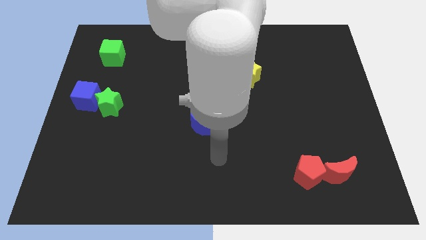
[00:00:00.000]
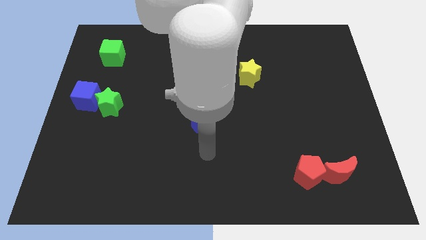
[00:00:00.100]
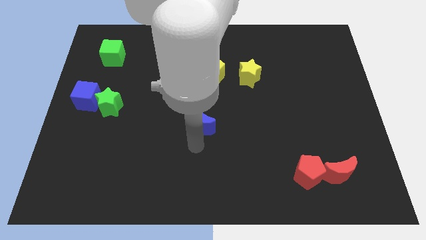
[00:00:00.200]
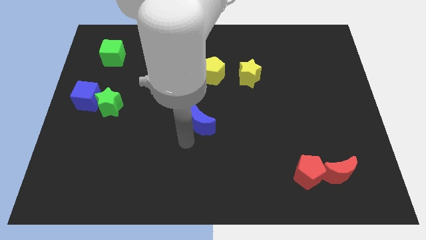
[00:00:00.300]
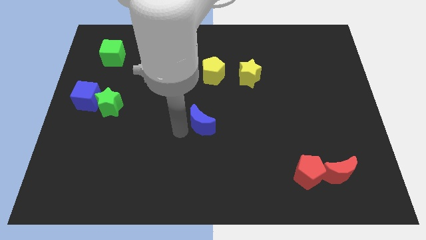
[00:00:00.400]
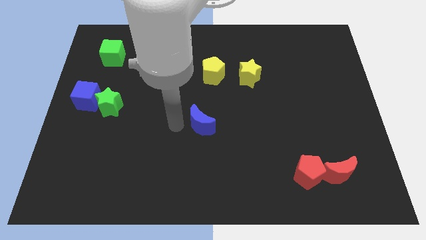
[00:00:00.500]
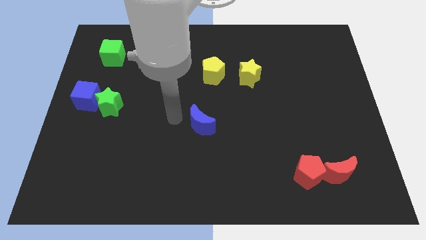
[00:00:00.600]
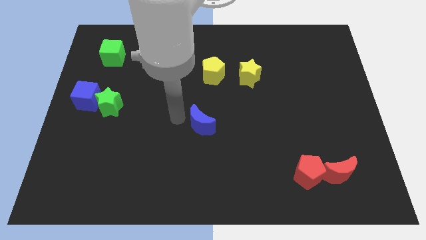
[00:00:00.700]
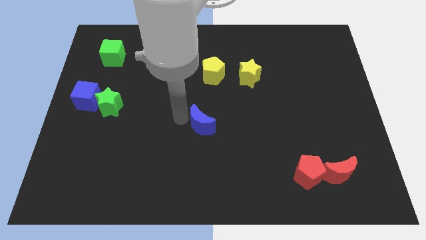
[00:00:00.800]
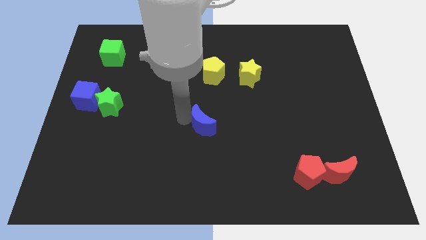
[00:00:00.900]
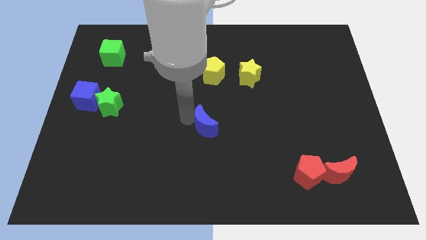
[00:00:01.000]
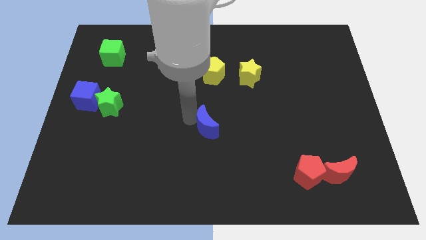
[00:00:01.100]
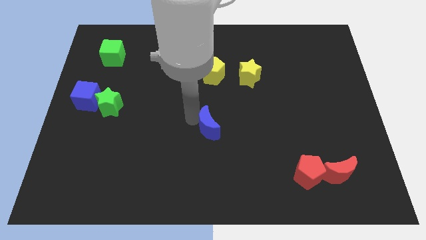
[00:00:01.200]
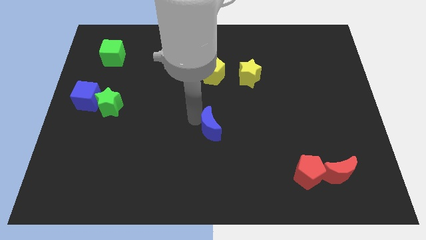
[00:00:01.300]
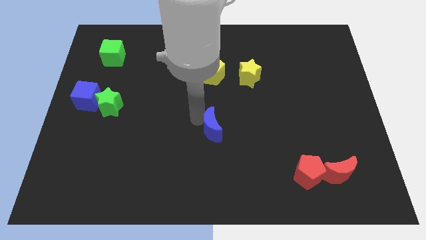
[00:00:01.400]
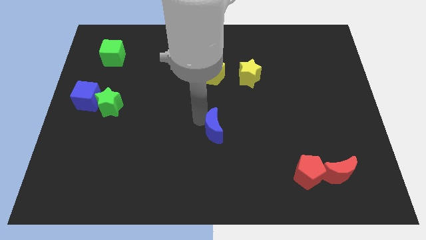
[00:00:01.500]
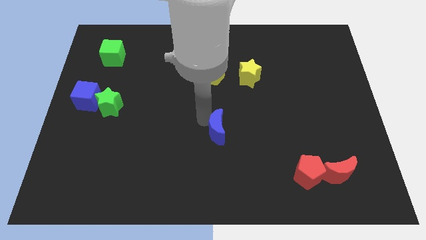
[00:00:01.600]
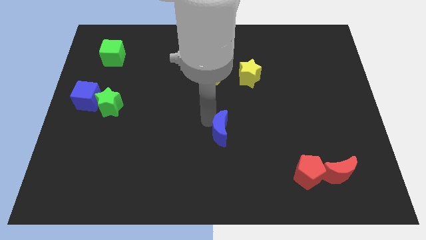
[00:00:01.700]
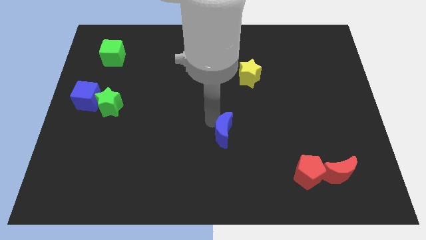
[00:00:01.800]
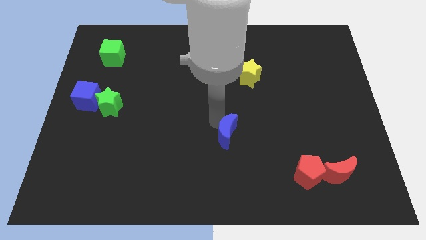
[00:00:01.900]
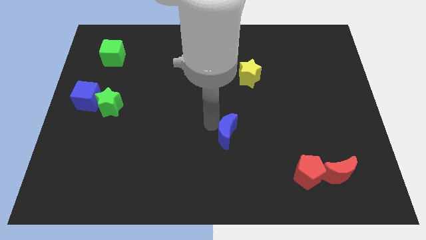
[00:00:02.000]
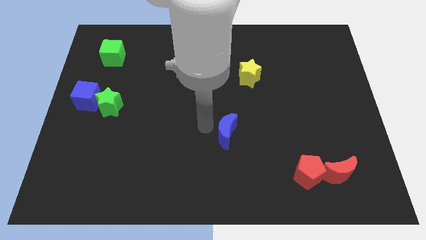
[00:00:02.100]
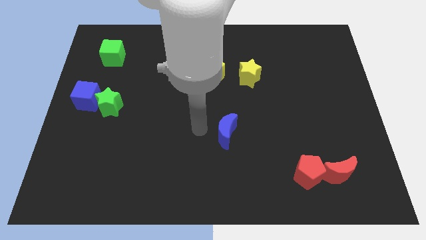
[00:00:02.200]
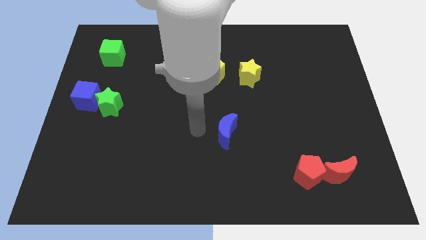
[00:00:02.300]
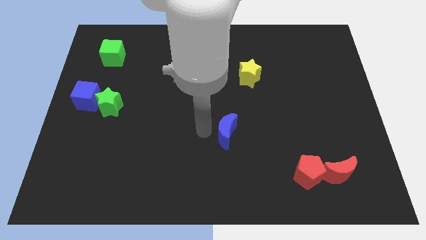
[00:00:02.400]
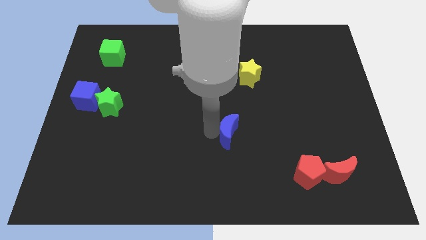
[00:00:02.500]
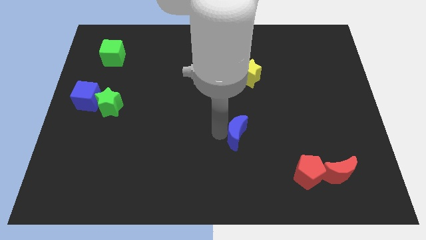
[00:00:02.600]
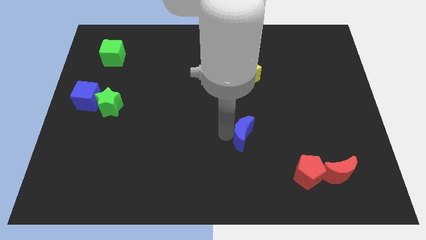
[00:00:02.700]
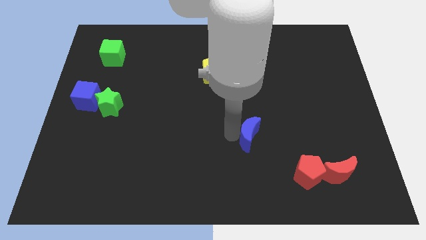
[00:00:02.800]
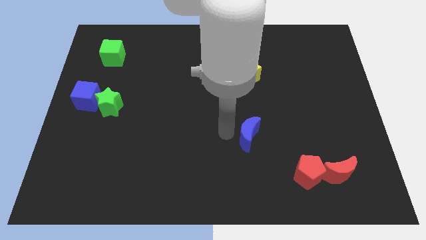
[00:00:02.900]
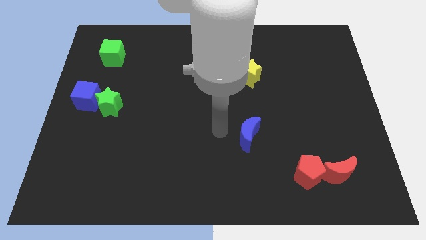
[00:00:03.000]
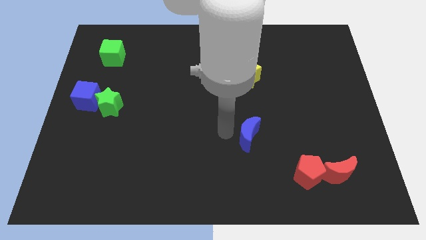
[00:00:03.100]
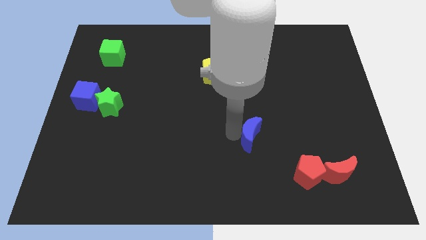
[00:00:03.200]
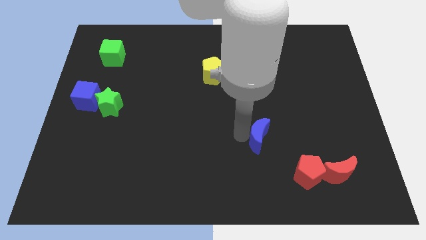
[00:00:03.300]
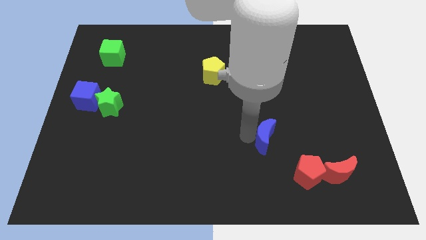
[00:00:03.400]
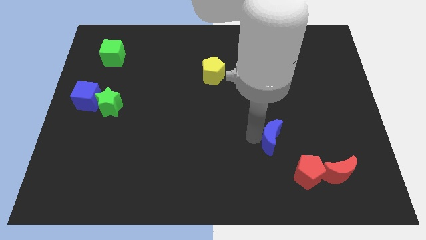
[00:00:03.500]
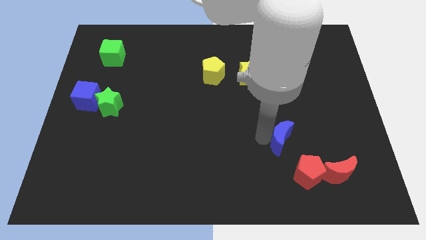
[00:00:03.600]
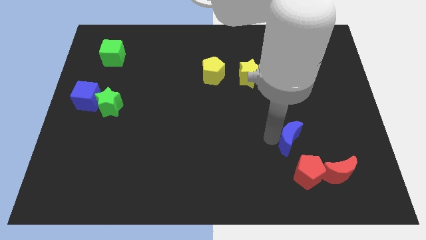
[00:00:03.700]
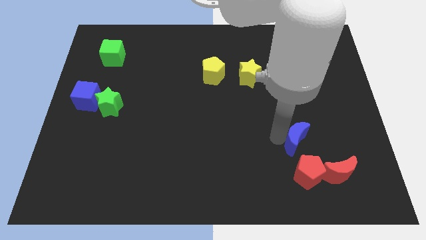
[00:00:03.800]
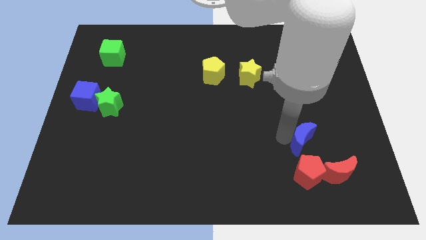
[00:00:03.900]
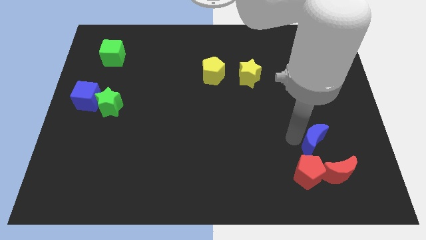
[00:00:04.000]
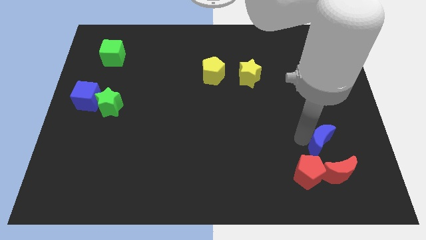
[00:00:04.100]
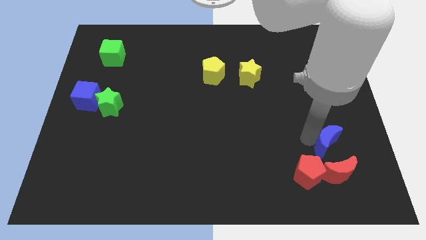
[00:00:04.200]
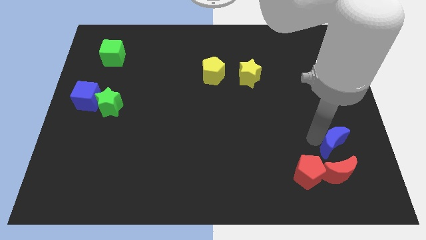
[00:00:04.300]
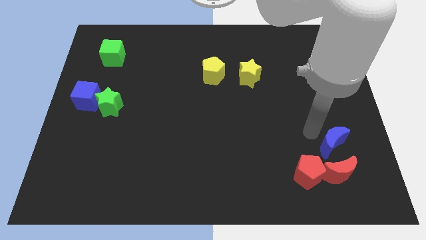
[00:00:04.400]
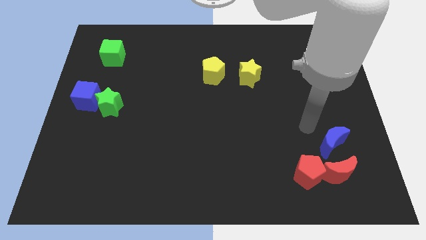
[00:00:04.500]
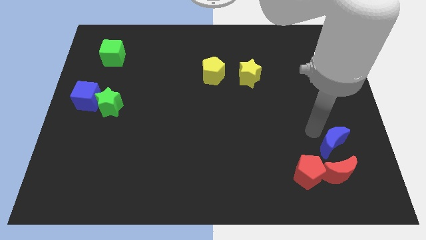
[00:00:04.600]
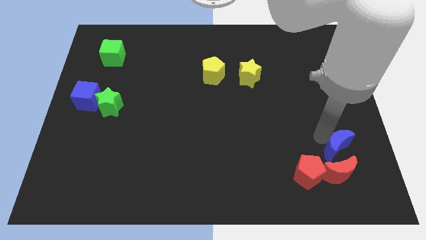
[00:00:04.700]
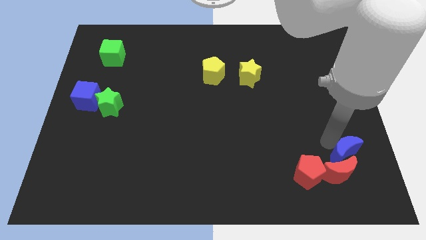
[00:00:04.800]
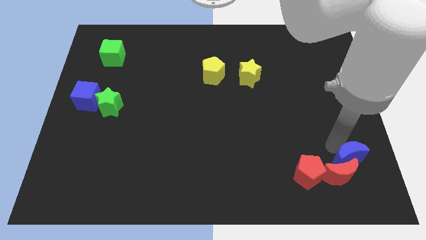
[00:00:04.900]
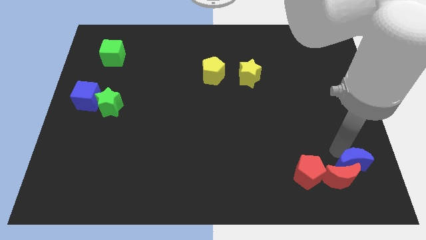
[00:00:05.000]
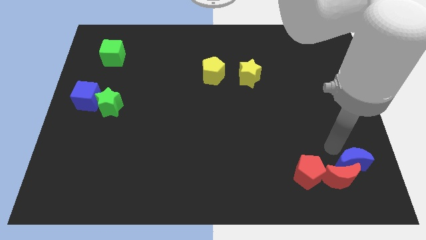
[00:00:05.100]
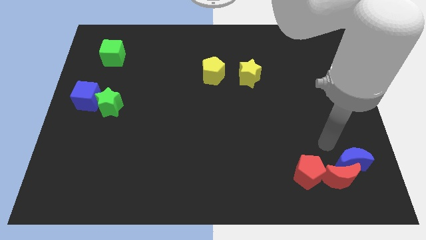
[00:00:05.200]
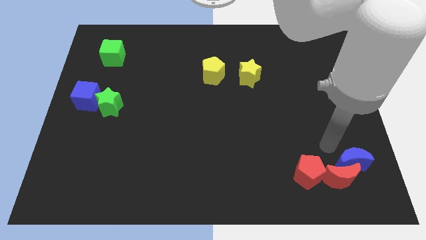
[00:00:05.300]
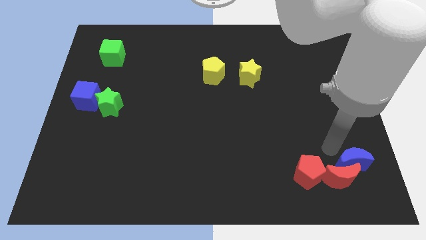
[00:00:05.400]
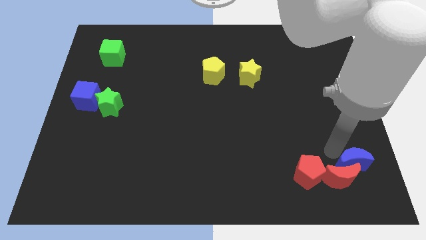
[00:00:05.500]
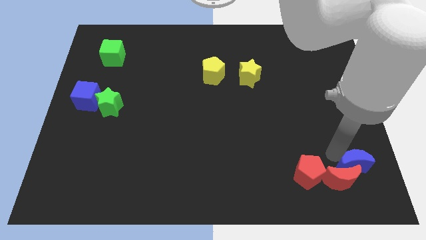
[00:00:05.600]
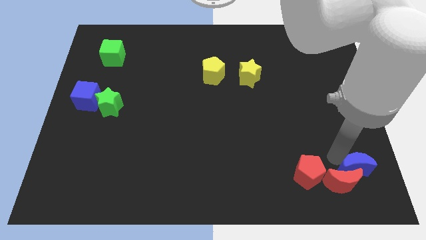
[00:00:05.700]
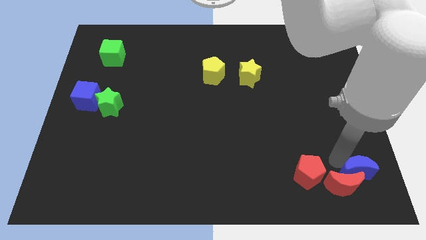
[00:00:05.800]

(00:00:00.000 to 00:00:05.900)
move the blue moon to the bottom right of the board
